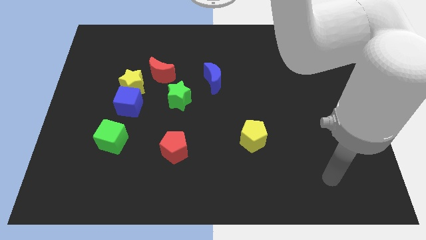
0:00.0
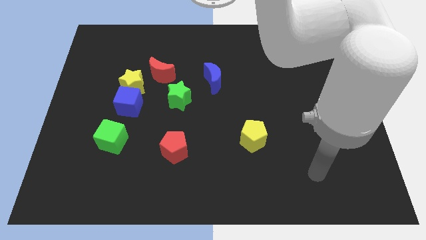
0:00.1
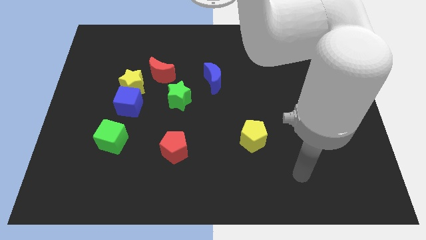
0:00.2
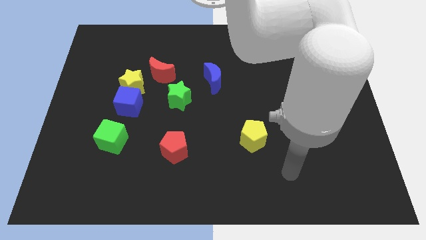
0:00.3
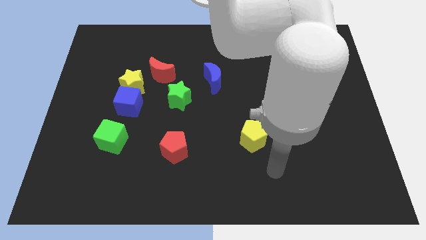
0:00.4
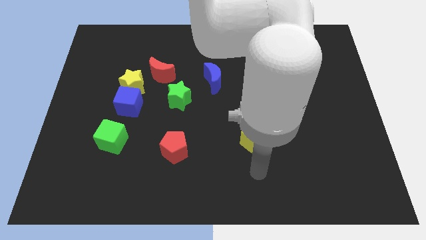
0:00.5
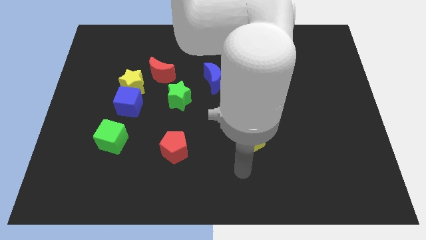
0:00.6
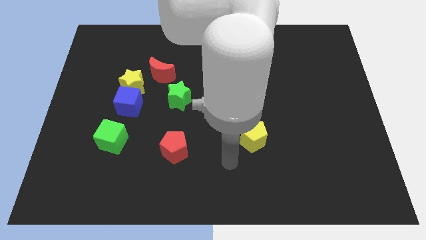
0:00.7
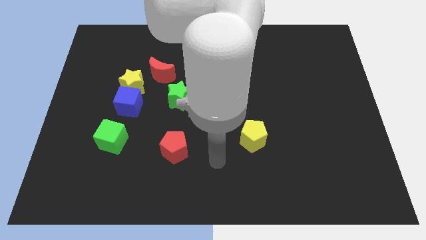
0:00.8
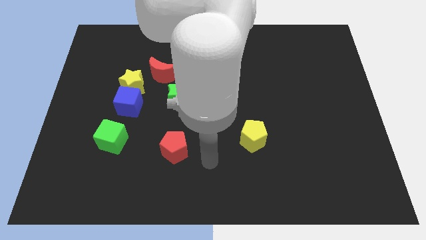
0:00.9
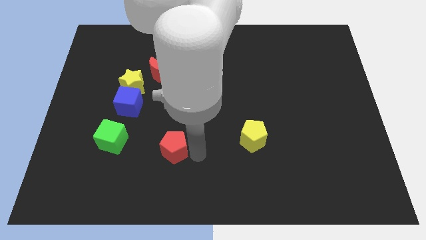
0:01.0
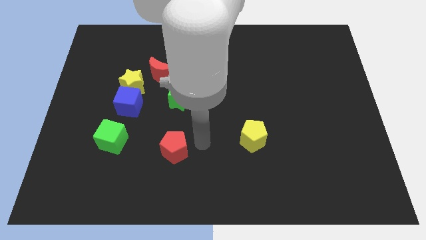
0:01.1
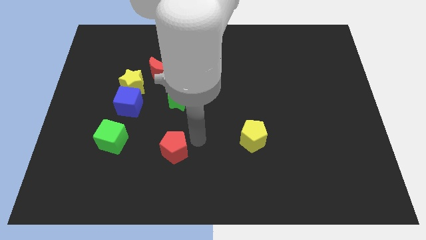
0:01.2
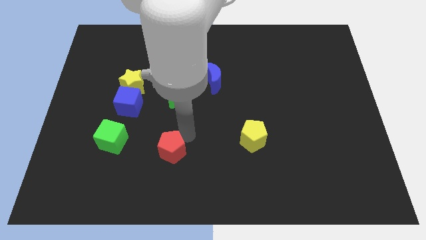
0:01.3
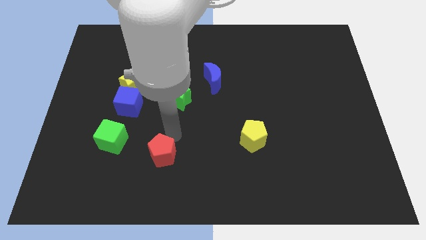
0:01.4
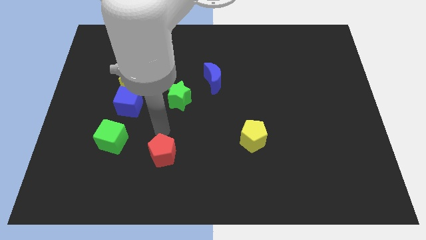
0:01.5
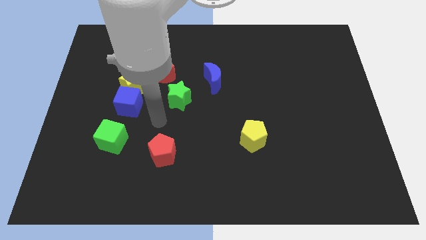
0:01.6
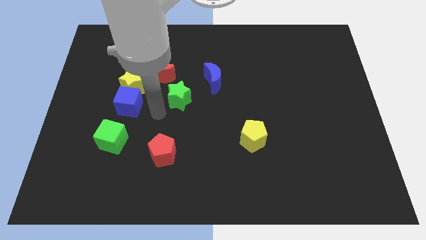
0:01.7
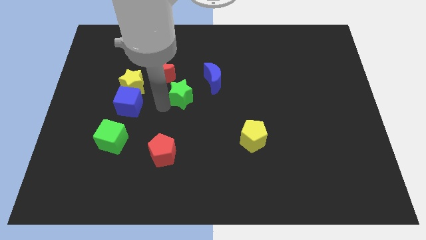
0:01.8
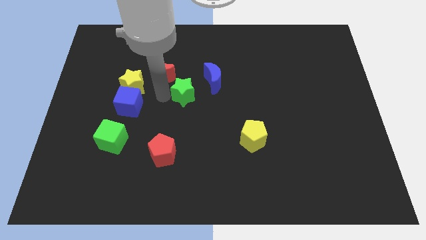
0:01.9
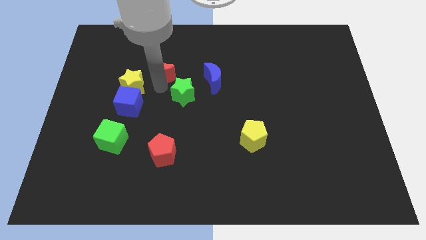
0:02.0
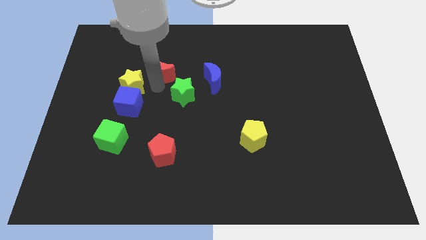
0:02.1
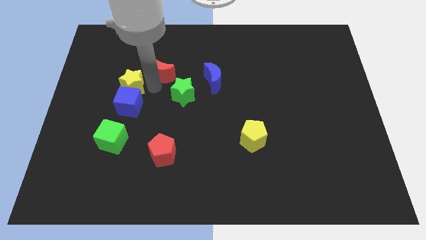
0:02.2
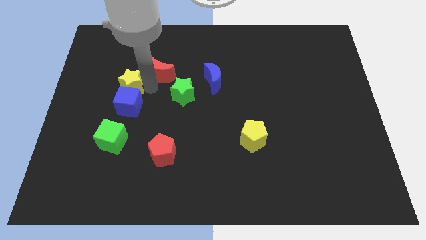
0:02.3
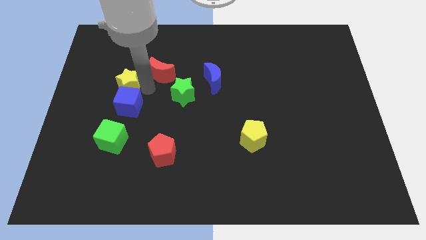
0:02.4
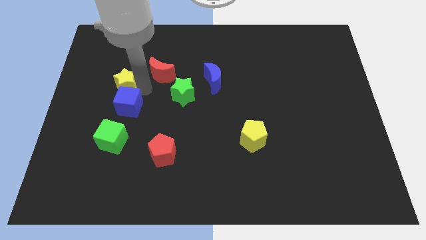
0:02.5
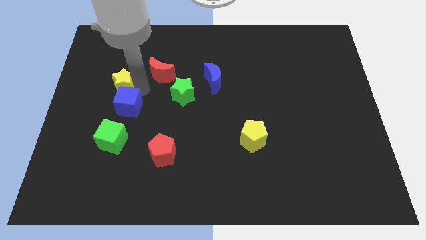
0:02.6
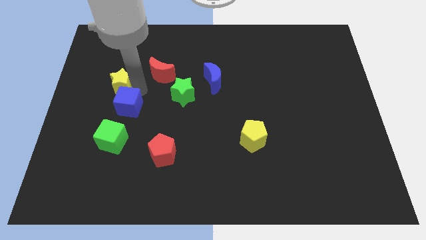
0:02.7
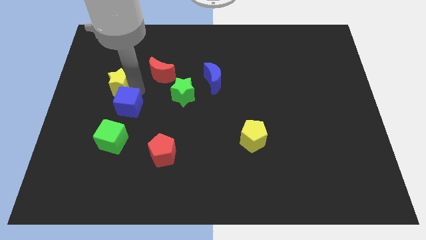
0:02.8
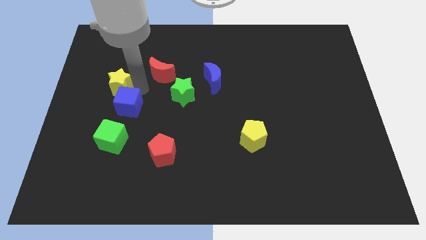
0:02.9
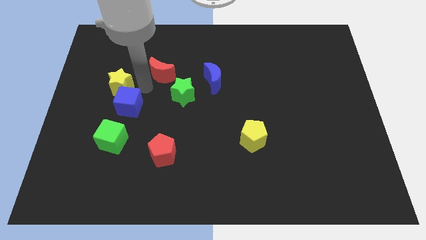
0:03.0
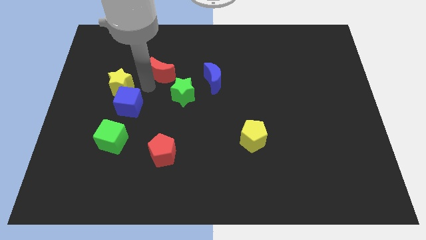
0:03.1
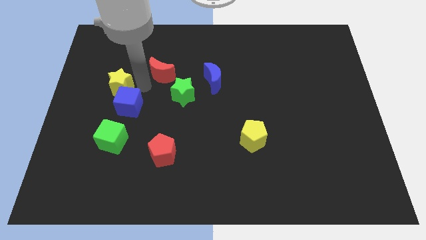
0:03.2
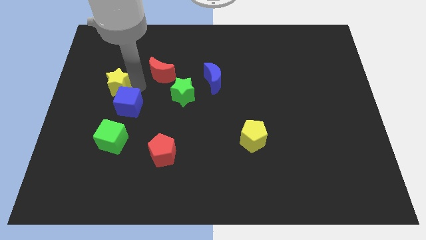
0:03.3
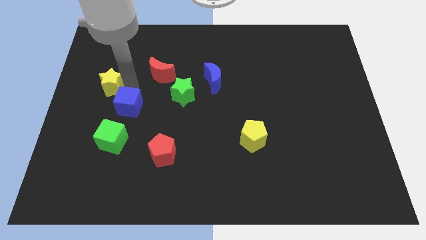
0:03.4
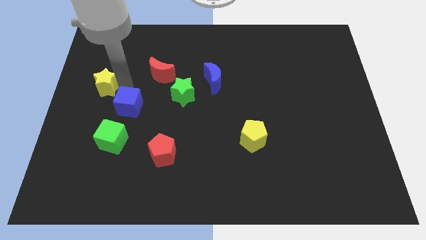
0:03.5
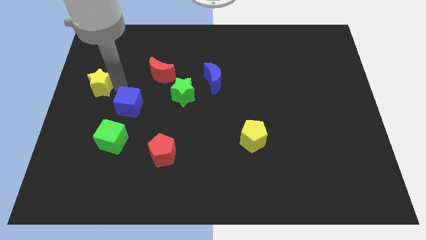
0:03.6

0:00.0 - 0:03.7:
move the yellow star away from the blue cube and red moon

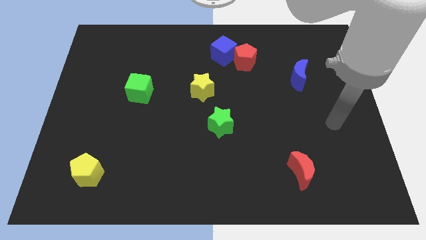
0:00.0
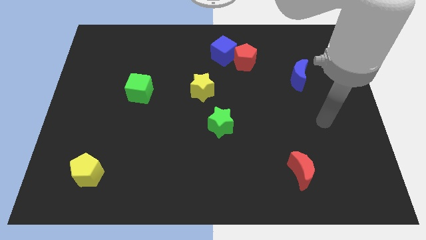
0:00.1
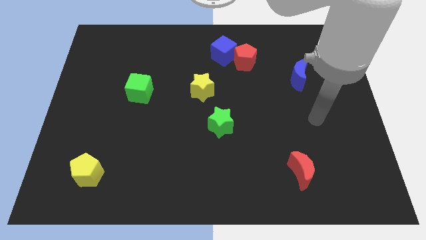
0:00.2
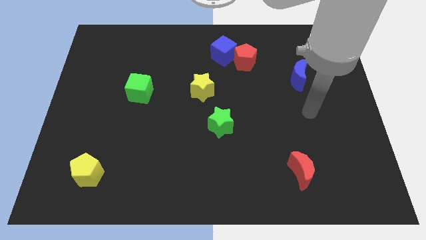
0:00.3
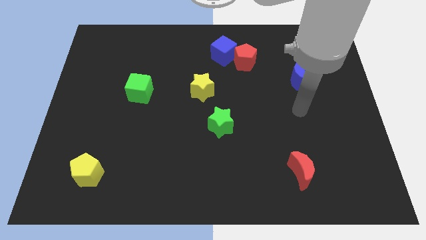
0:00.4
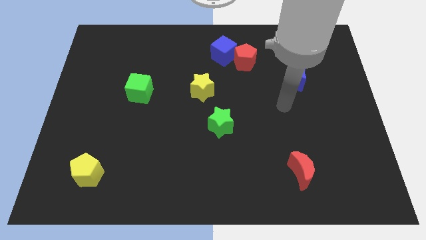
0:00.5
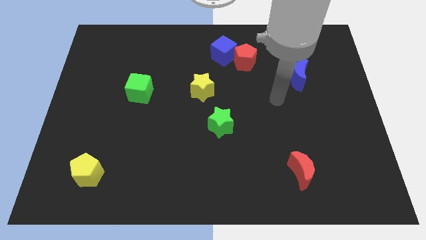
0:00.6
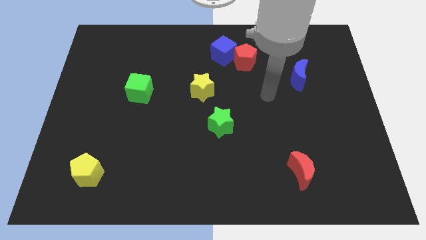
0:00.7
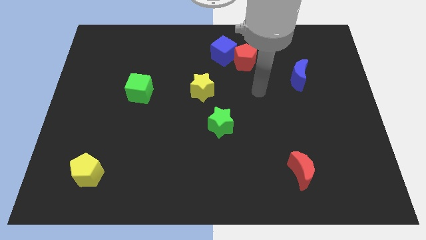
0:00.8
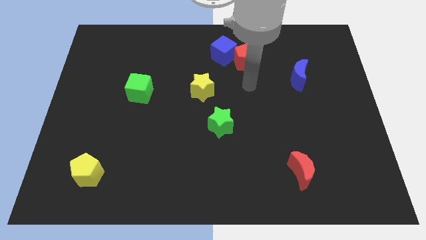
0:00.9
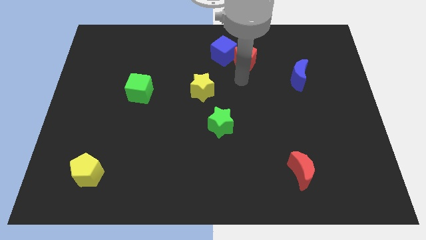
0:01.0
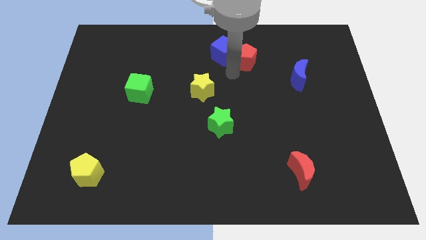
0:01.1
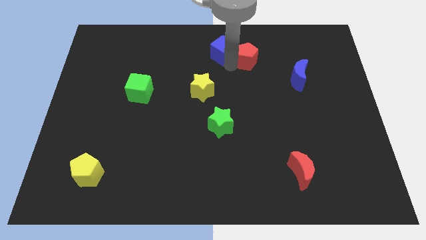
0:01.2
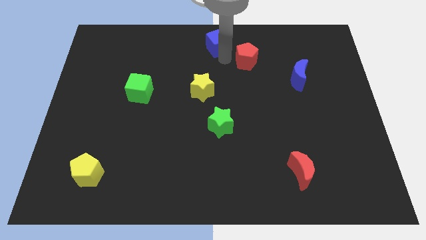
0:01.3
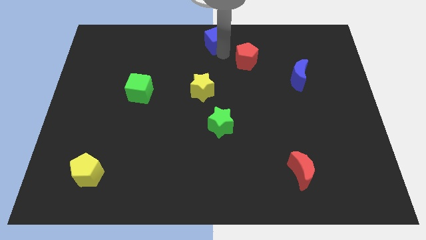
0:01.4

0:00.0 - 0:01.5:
separate the red pentagon from the blue cube

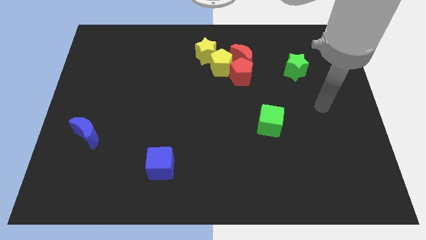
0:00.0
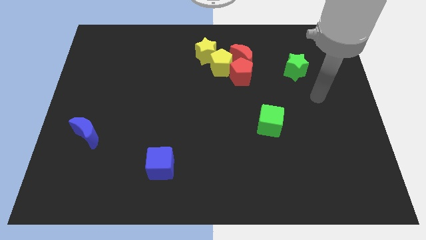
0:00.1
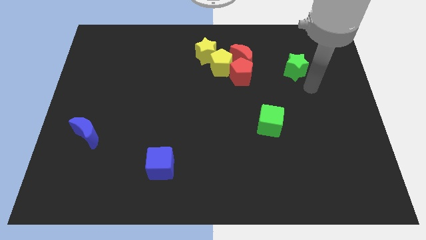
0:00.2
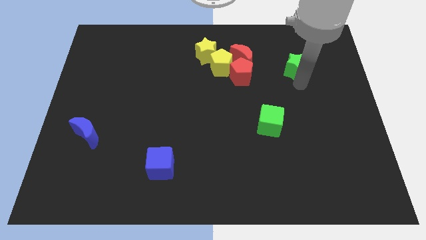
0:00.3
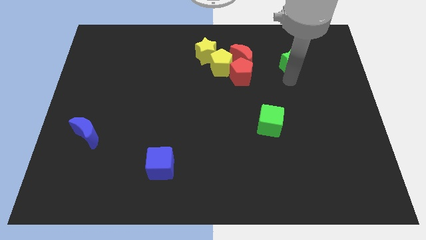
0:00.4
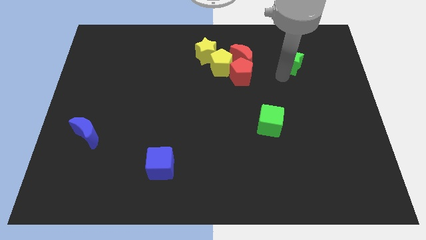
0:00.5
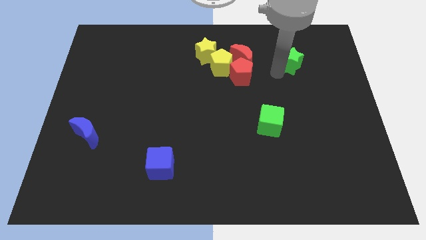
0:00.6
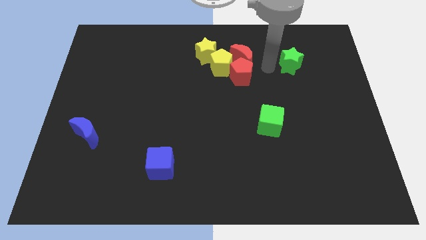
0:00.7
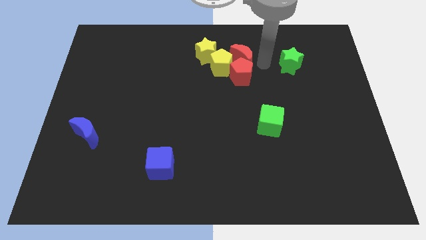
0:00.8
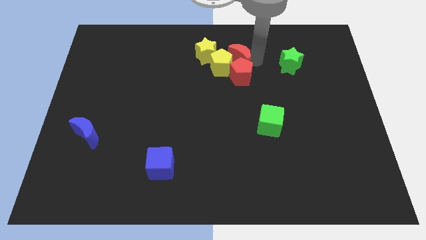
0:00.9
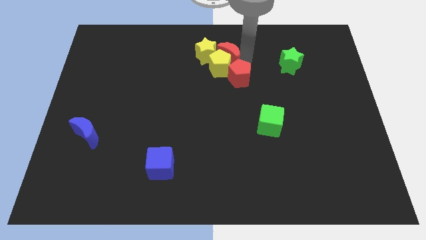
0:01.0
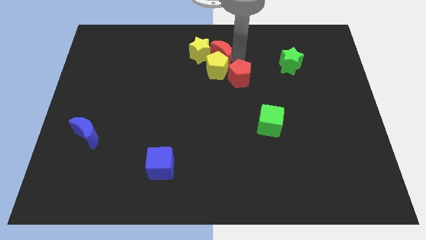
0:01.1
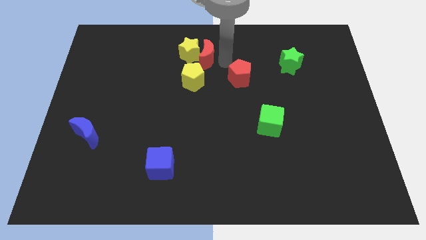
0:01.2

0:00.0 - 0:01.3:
separate the red pentagon from the red moon and yellow pentagon

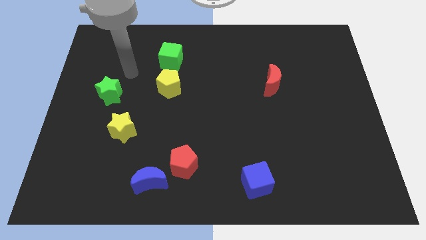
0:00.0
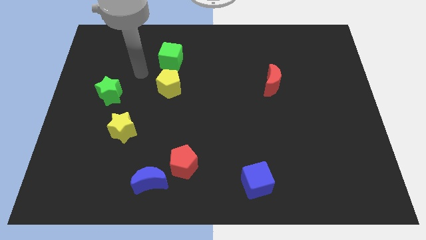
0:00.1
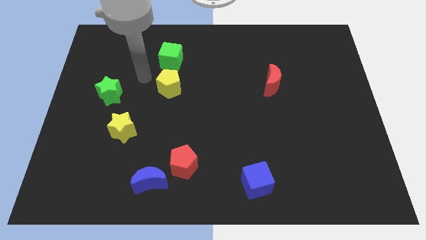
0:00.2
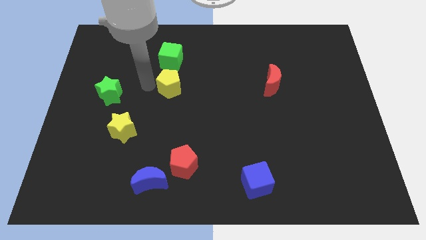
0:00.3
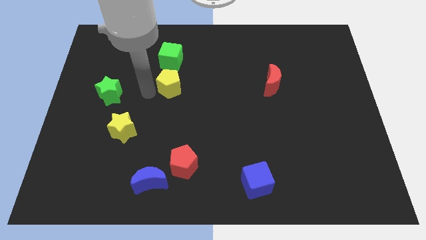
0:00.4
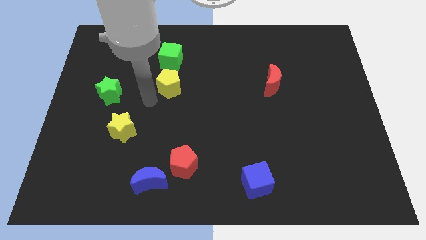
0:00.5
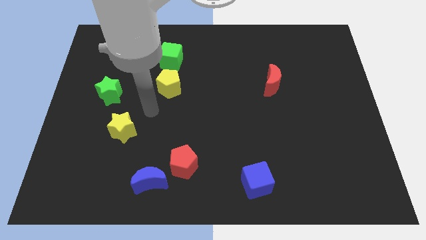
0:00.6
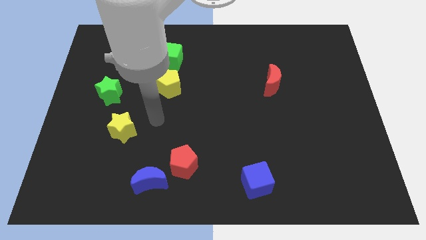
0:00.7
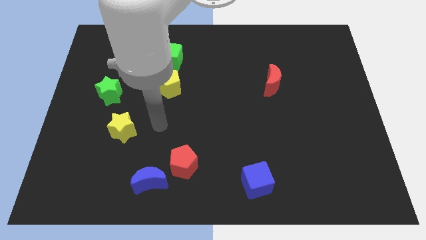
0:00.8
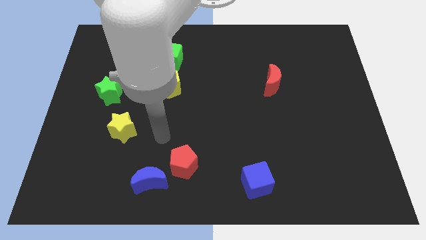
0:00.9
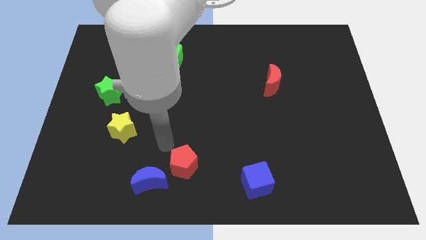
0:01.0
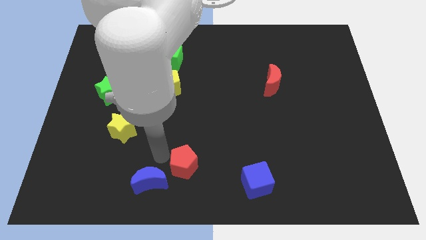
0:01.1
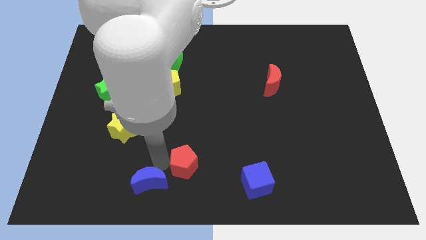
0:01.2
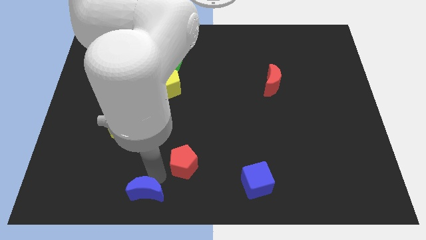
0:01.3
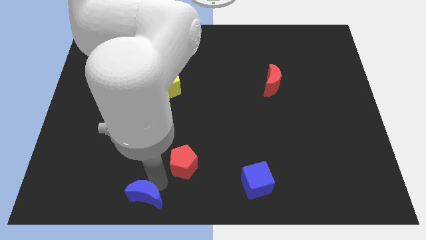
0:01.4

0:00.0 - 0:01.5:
pull the red pentagon apart from the blue moon

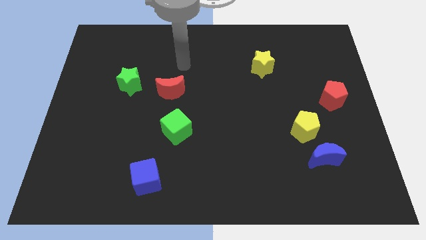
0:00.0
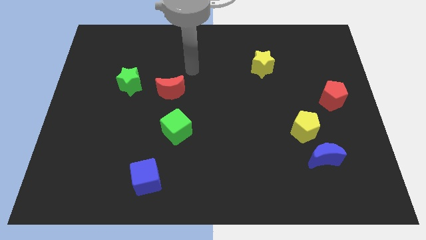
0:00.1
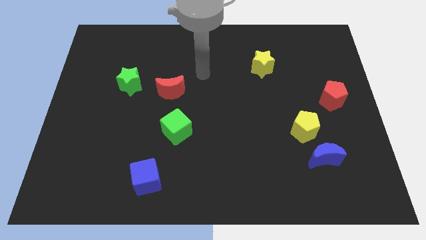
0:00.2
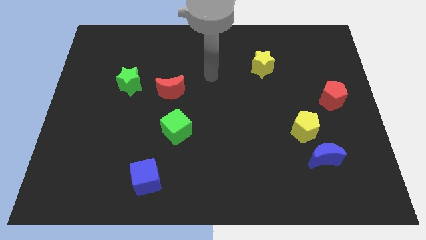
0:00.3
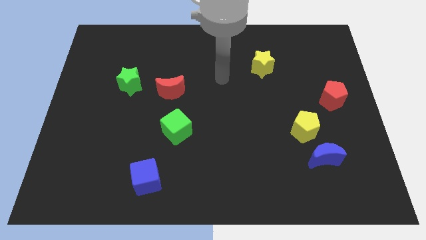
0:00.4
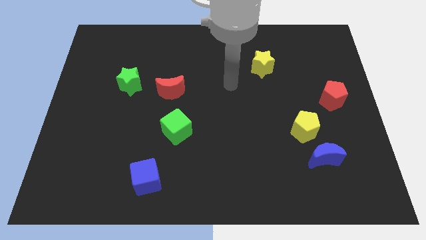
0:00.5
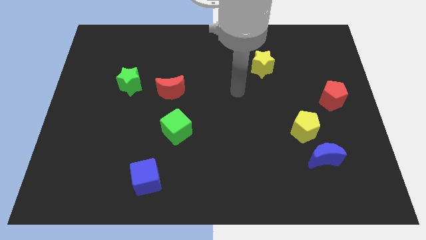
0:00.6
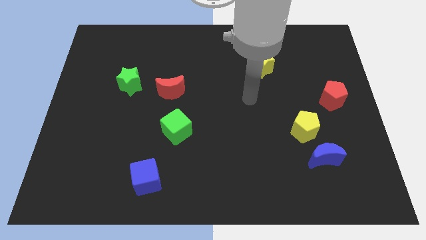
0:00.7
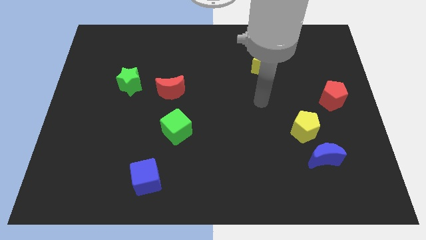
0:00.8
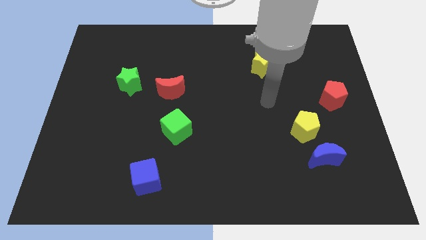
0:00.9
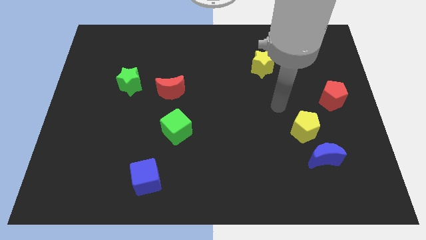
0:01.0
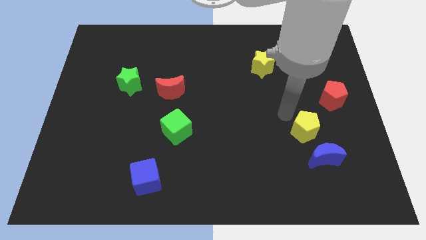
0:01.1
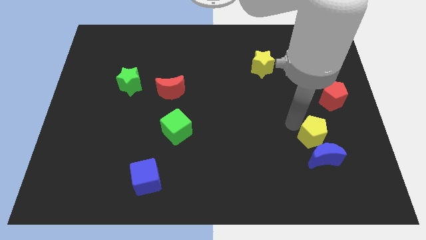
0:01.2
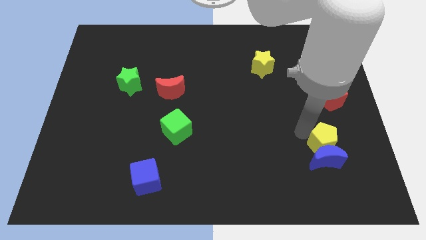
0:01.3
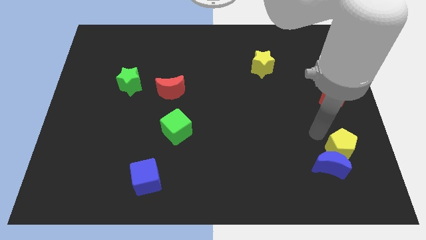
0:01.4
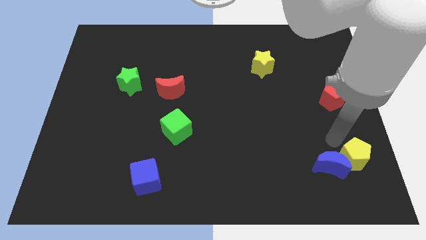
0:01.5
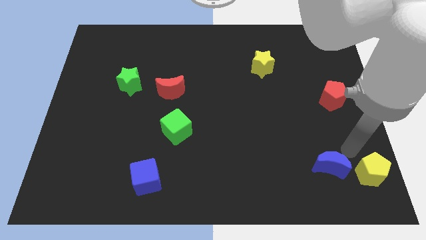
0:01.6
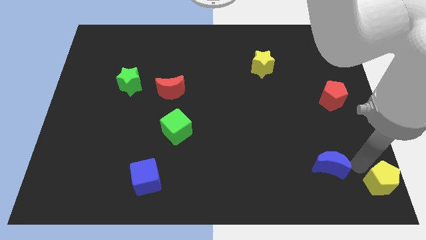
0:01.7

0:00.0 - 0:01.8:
pull the blue moon apart from the yellow pentagon
